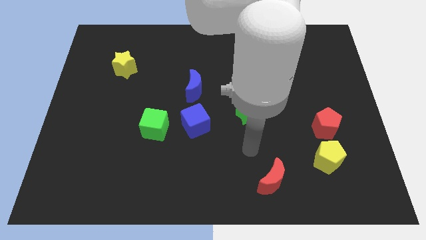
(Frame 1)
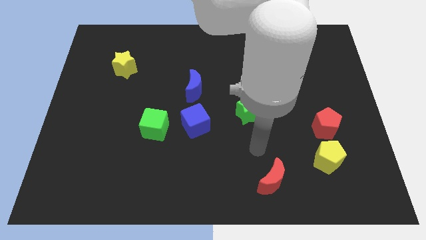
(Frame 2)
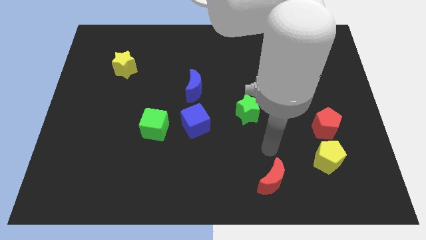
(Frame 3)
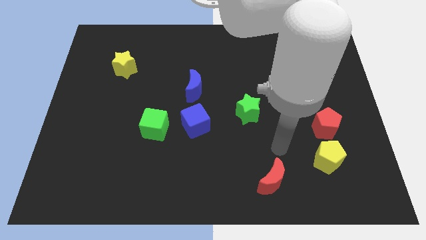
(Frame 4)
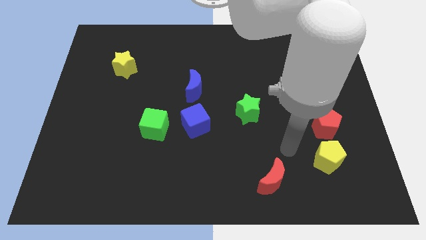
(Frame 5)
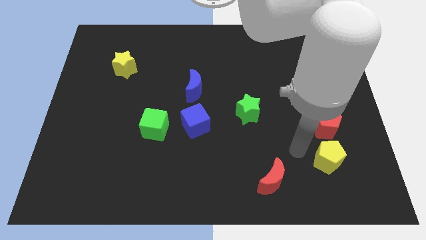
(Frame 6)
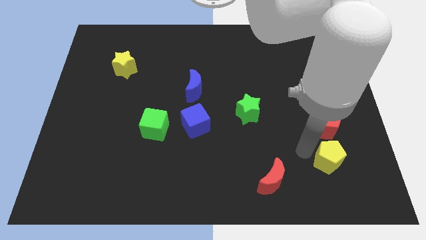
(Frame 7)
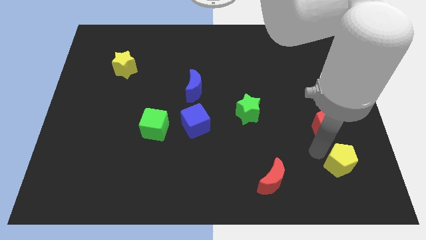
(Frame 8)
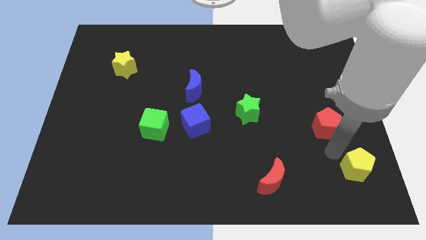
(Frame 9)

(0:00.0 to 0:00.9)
separate the red pentagon from the yellow pentagon

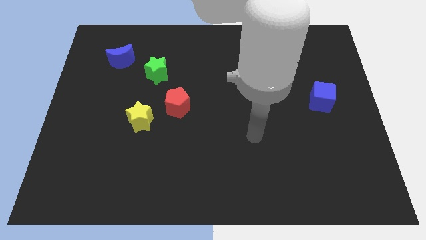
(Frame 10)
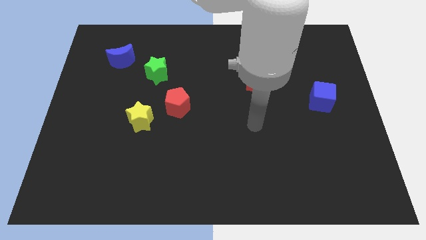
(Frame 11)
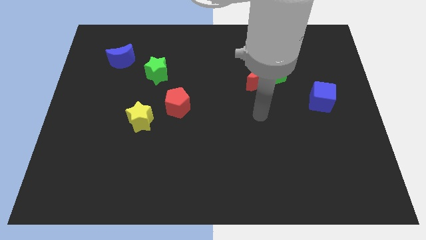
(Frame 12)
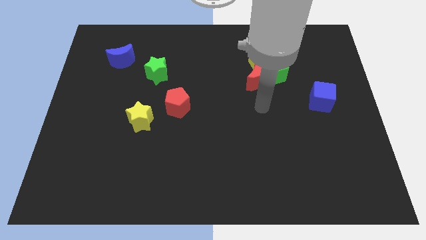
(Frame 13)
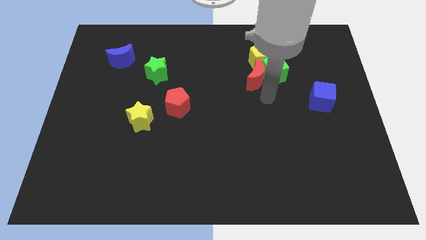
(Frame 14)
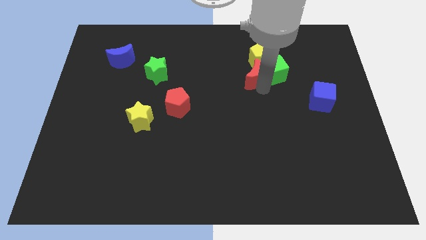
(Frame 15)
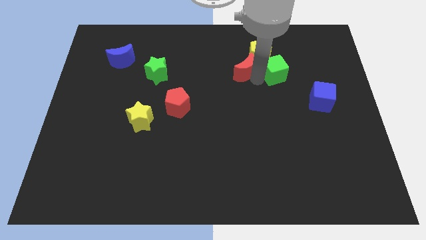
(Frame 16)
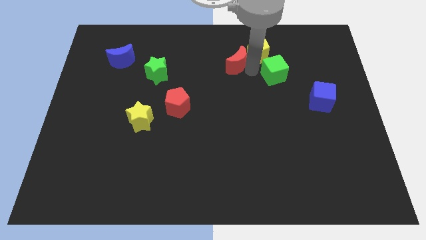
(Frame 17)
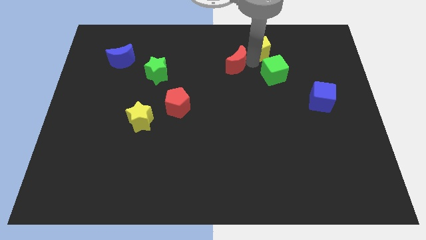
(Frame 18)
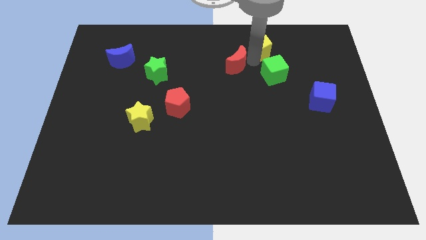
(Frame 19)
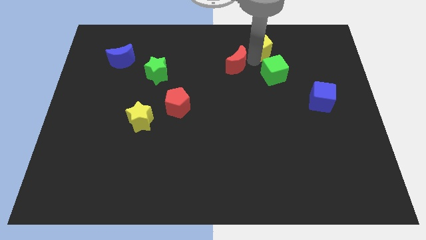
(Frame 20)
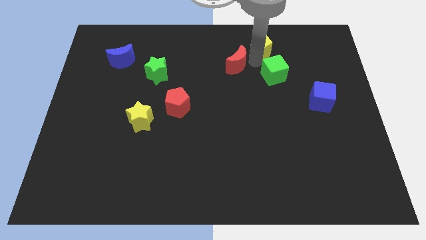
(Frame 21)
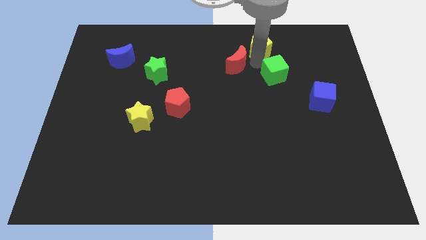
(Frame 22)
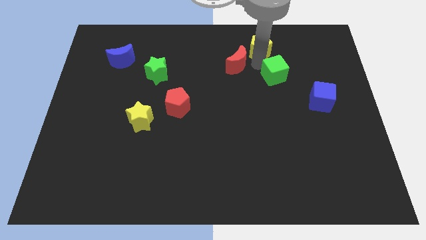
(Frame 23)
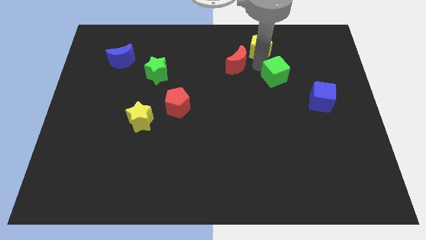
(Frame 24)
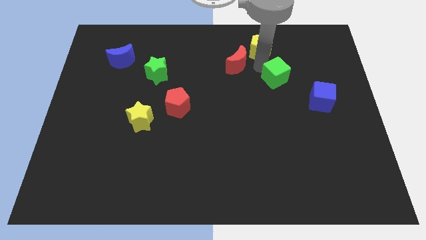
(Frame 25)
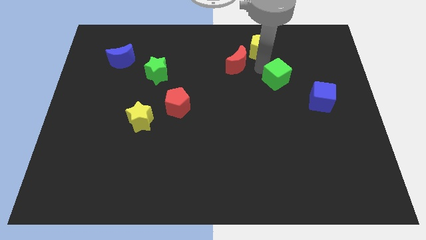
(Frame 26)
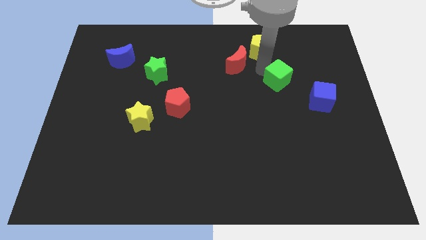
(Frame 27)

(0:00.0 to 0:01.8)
move the green cube away from the red moon and yellow pentagon

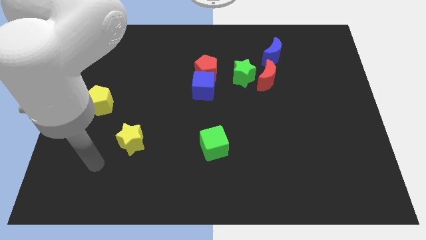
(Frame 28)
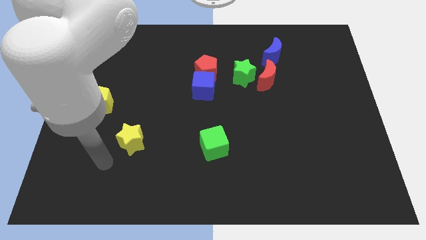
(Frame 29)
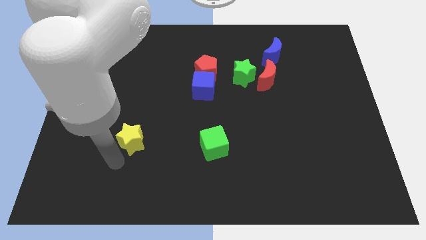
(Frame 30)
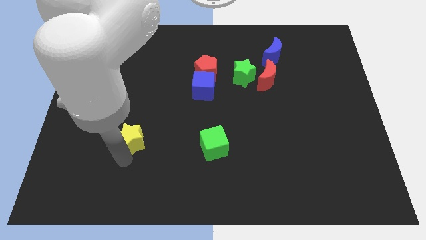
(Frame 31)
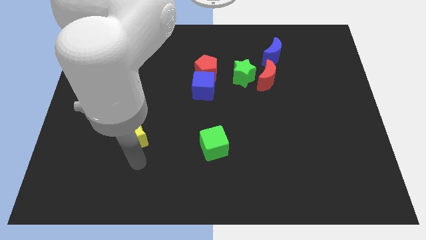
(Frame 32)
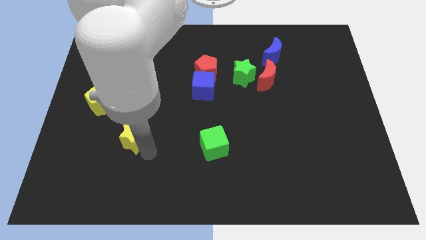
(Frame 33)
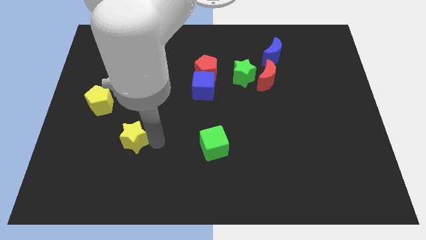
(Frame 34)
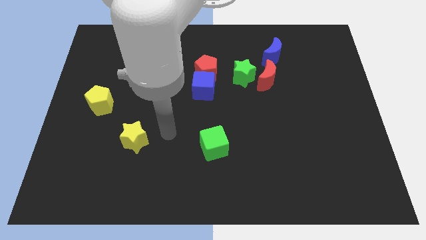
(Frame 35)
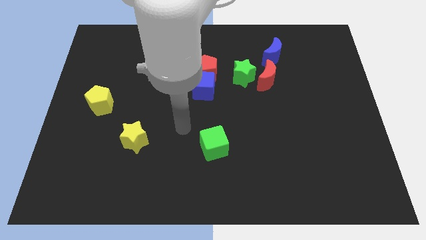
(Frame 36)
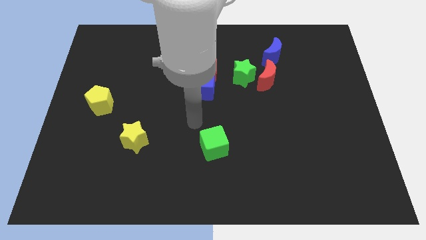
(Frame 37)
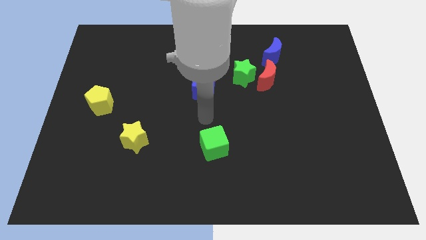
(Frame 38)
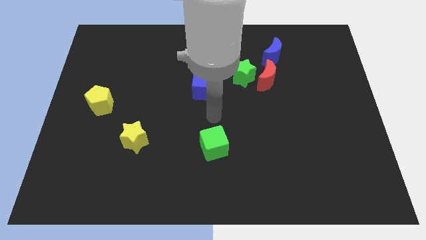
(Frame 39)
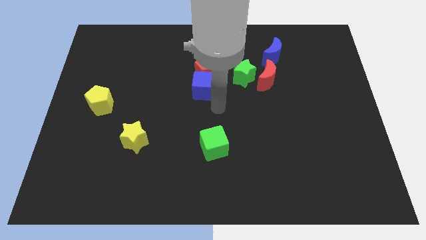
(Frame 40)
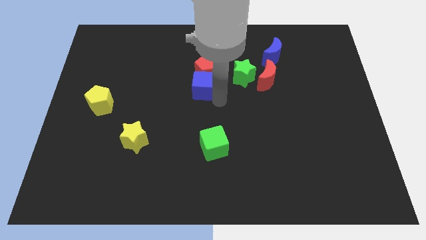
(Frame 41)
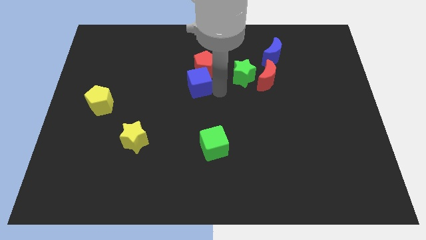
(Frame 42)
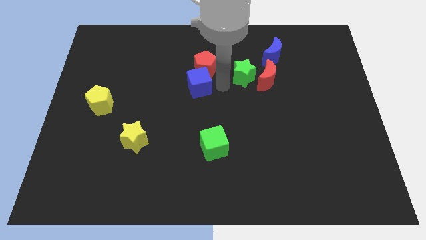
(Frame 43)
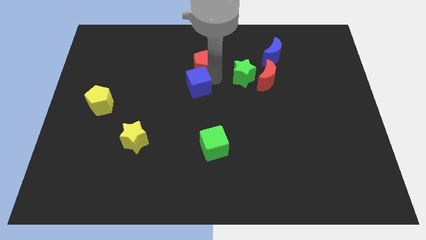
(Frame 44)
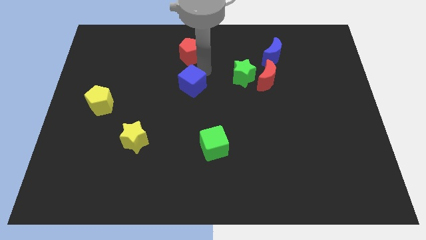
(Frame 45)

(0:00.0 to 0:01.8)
separate the blue cube from the red pentagon

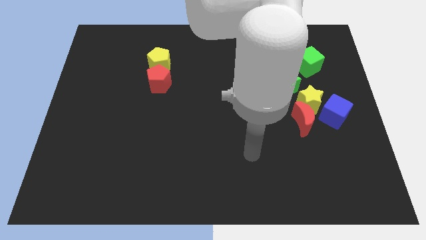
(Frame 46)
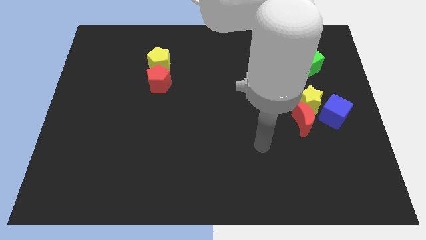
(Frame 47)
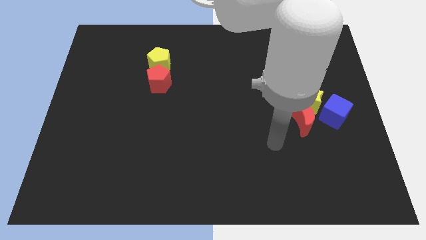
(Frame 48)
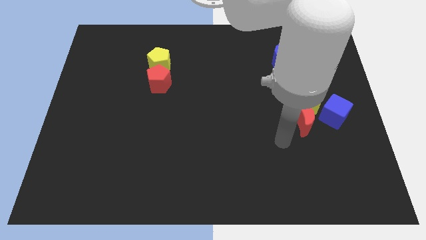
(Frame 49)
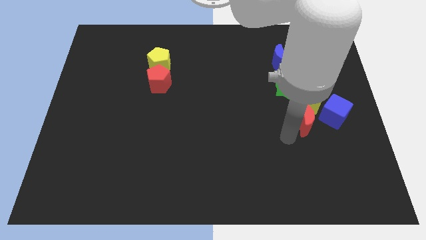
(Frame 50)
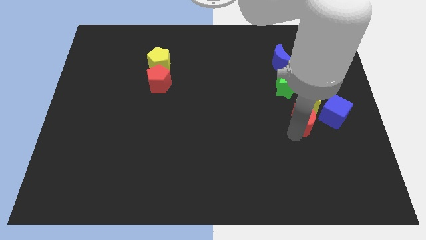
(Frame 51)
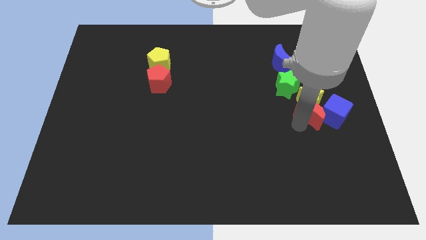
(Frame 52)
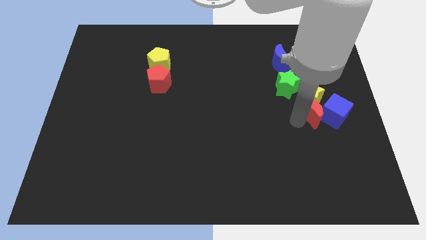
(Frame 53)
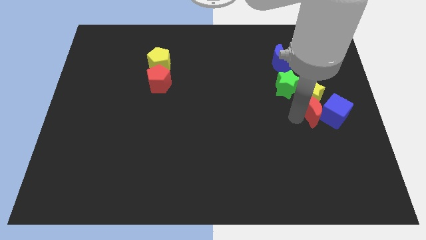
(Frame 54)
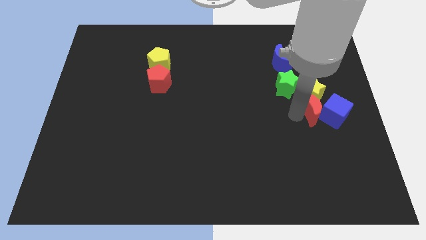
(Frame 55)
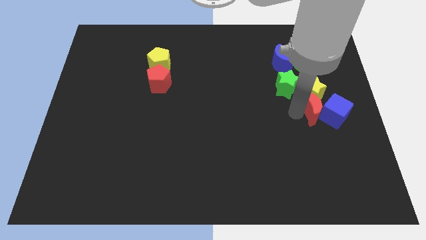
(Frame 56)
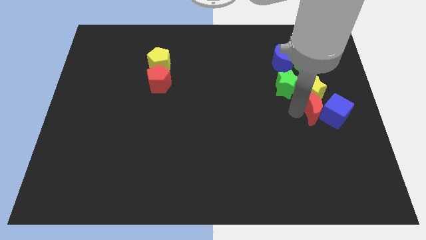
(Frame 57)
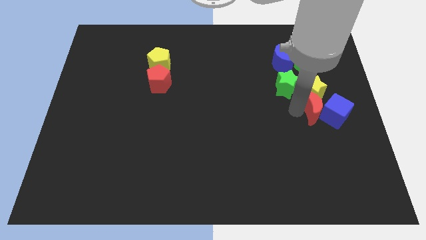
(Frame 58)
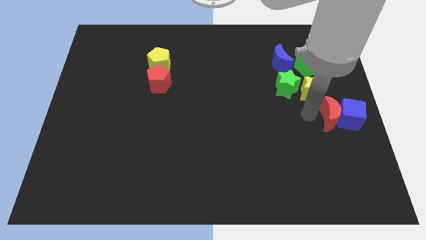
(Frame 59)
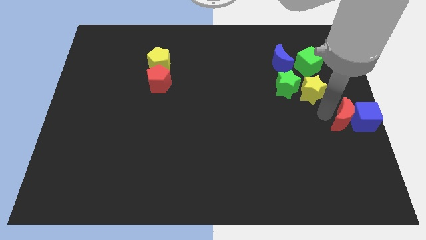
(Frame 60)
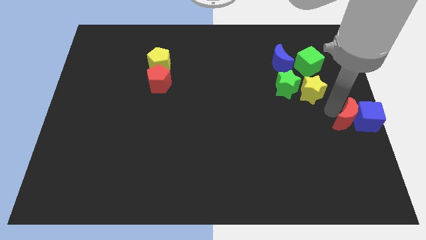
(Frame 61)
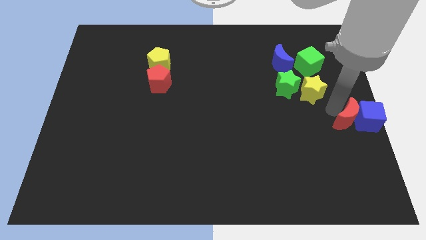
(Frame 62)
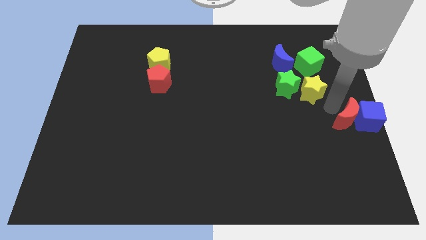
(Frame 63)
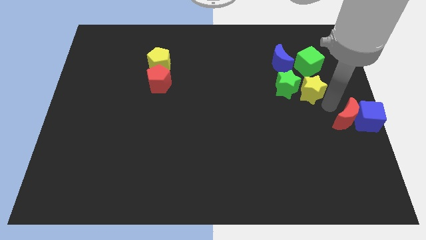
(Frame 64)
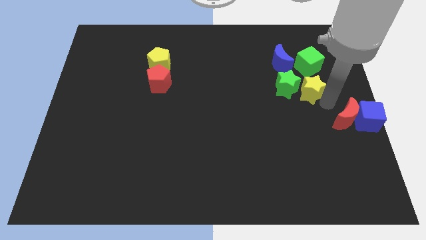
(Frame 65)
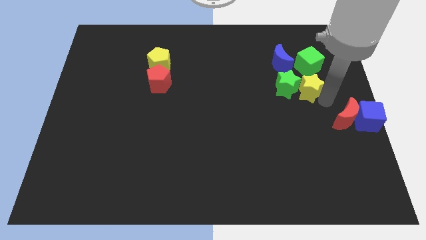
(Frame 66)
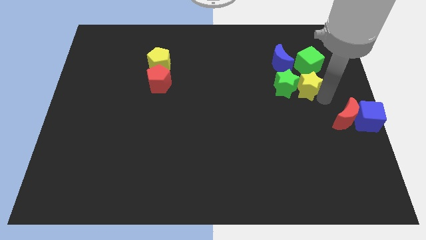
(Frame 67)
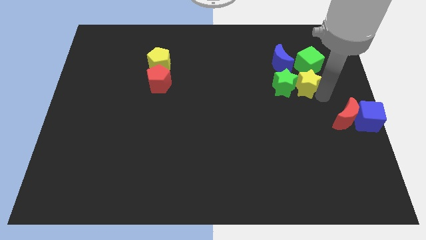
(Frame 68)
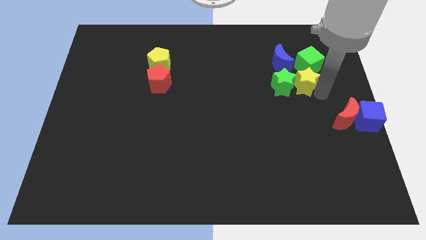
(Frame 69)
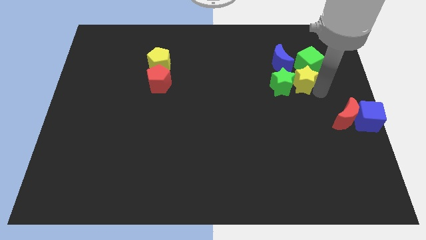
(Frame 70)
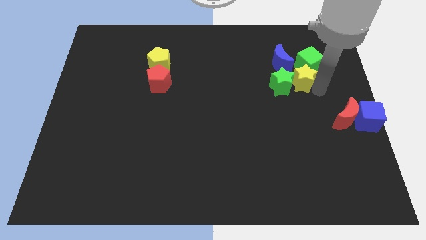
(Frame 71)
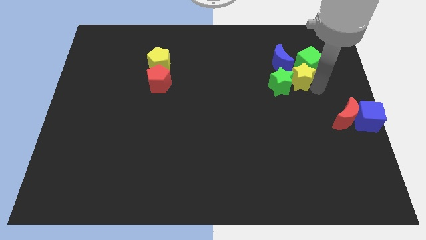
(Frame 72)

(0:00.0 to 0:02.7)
separate the yellow star from the red moon, blue cube, and green star

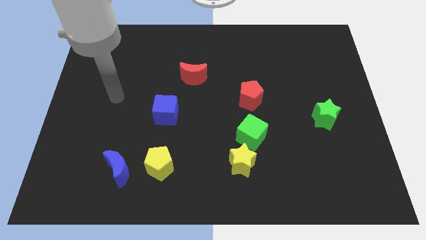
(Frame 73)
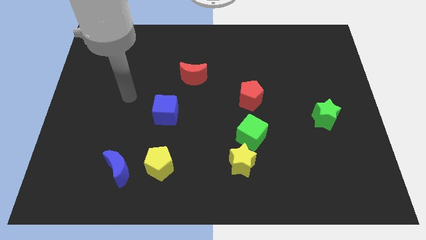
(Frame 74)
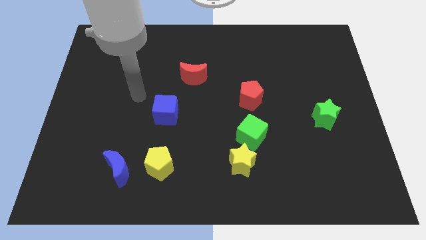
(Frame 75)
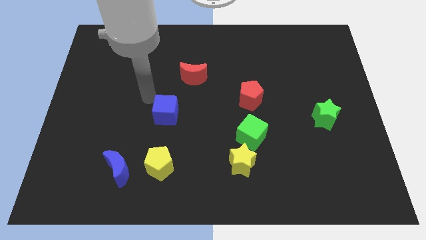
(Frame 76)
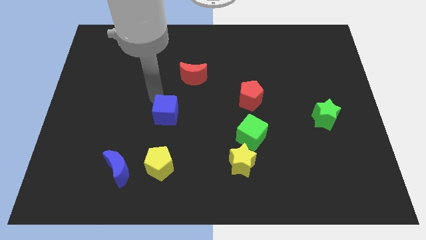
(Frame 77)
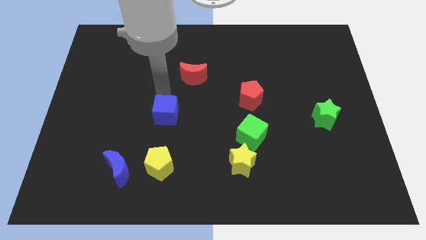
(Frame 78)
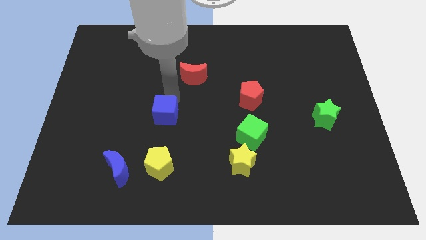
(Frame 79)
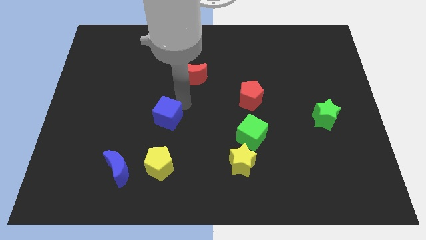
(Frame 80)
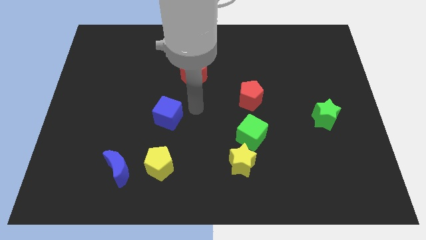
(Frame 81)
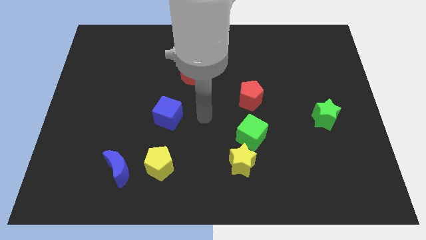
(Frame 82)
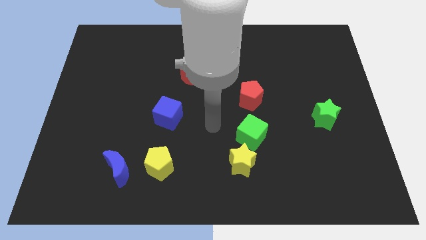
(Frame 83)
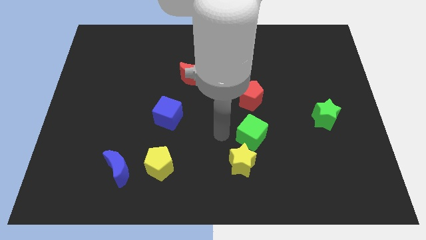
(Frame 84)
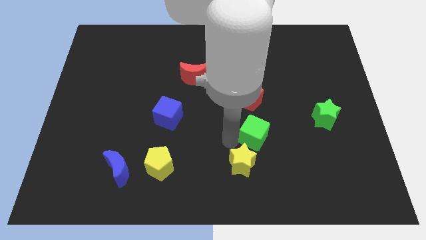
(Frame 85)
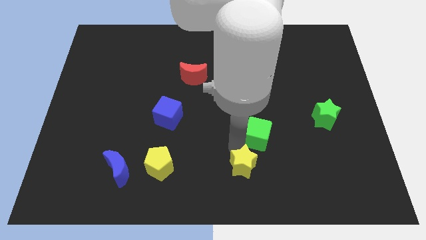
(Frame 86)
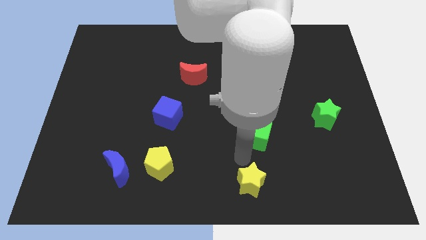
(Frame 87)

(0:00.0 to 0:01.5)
pull the green cube apart from the yellow star

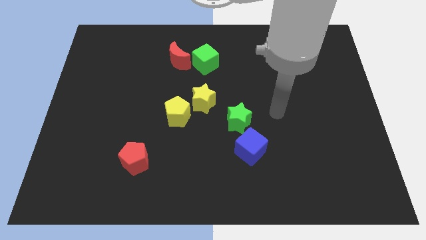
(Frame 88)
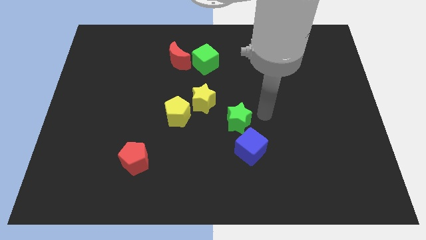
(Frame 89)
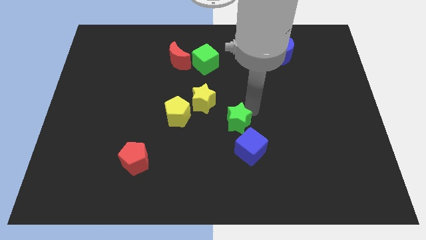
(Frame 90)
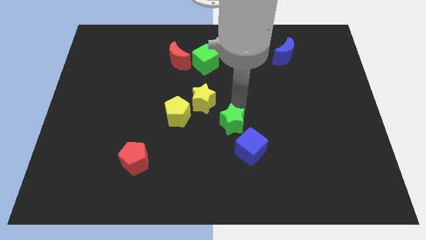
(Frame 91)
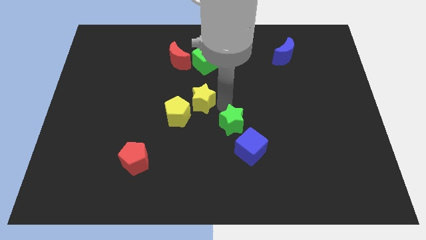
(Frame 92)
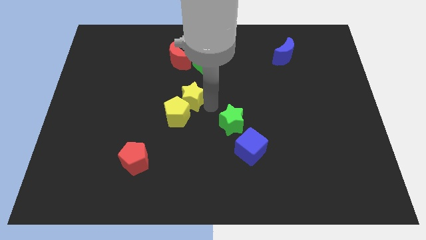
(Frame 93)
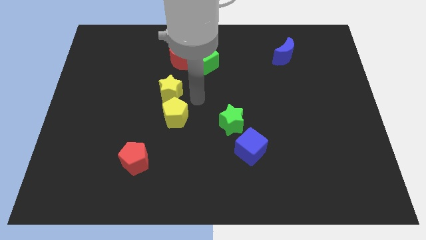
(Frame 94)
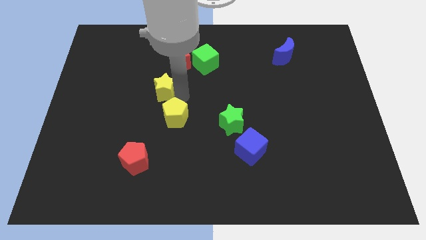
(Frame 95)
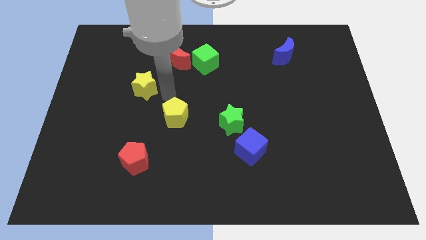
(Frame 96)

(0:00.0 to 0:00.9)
move the yellow pentagon away from the yellow star
